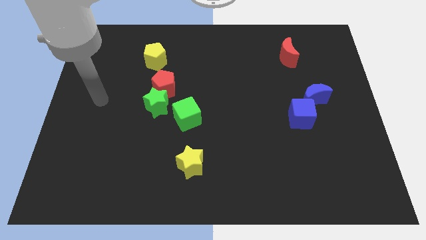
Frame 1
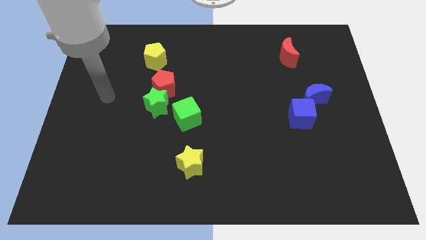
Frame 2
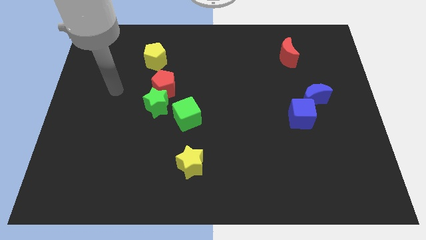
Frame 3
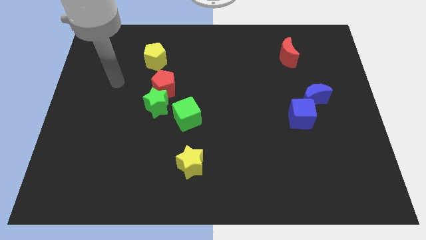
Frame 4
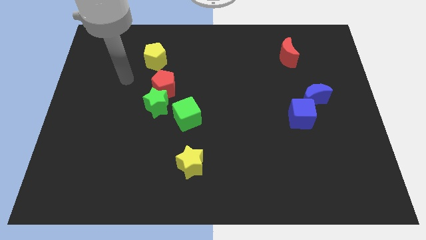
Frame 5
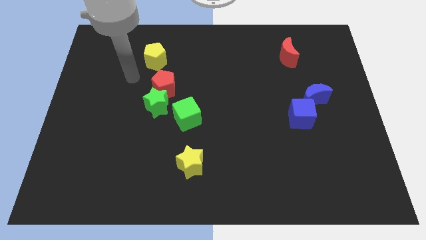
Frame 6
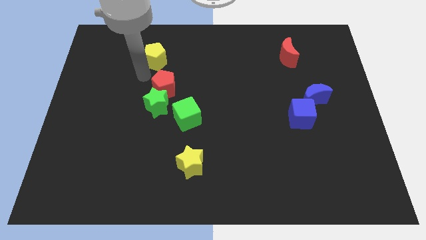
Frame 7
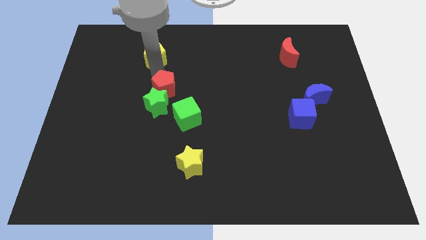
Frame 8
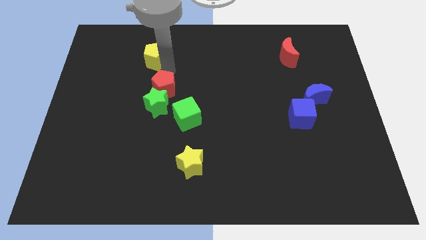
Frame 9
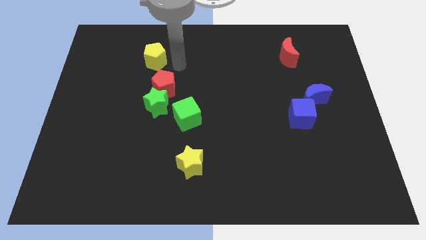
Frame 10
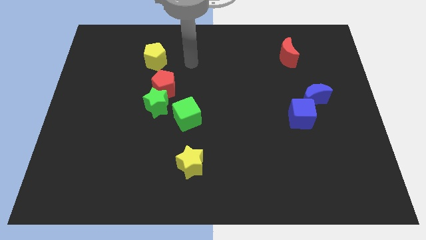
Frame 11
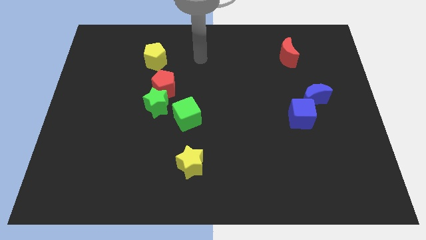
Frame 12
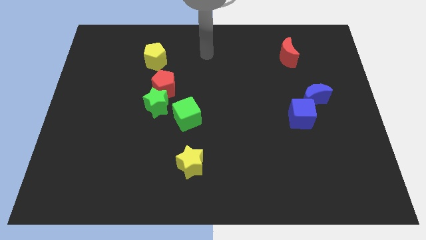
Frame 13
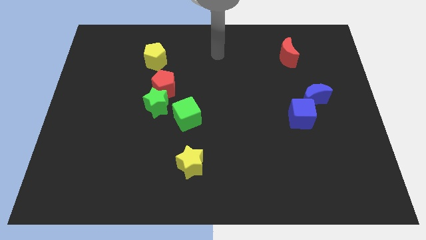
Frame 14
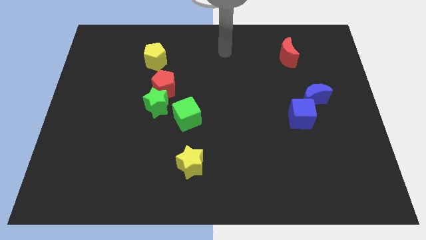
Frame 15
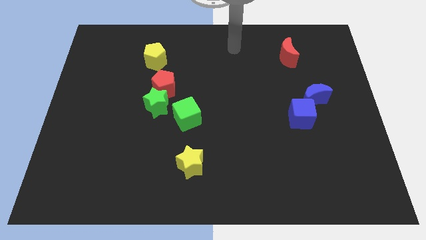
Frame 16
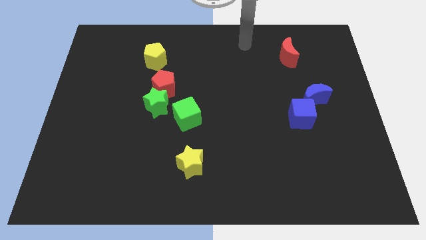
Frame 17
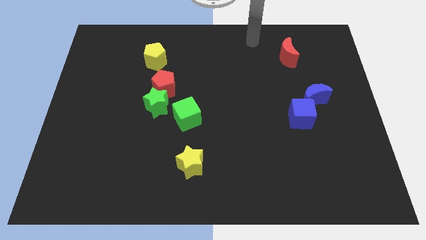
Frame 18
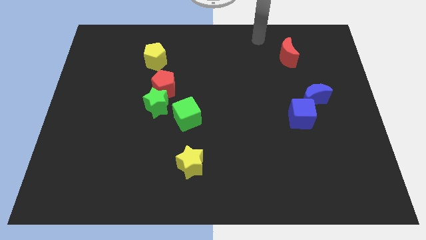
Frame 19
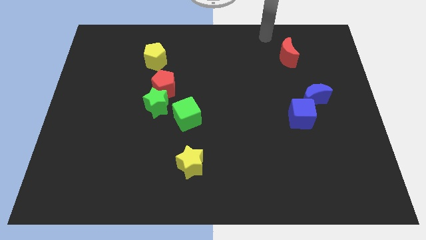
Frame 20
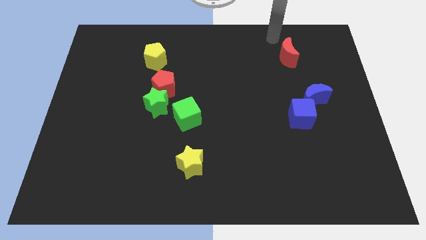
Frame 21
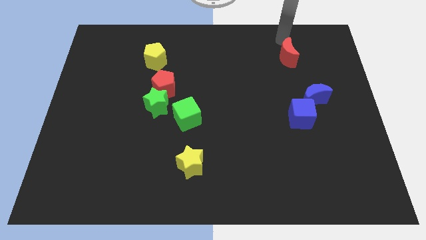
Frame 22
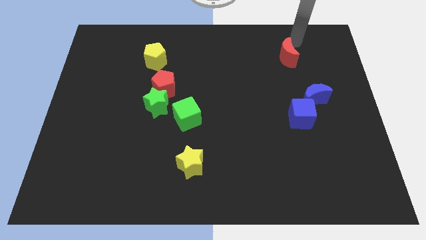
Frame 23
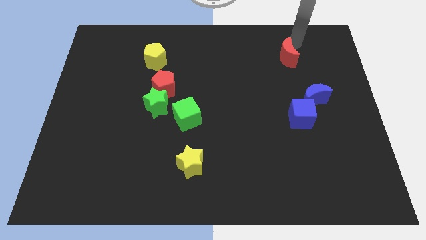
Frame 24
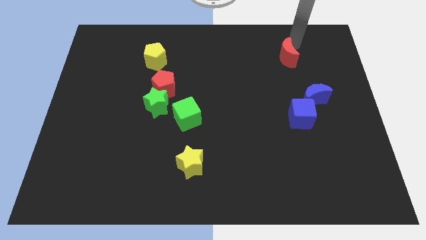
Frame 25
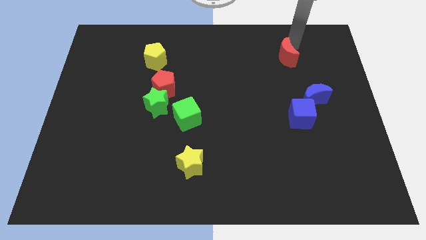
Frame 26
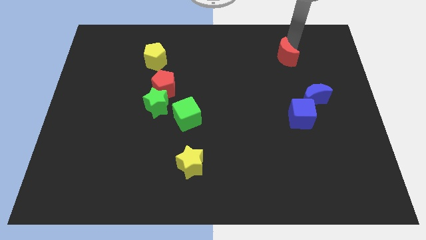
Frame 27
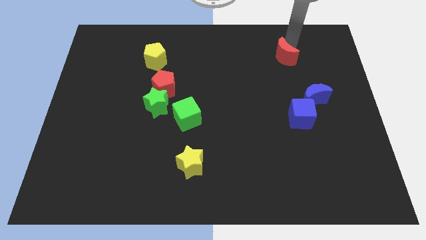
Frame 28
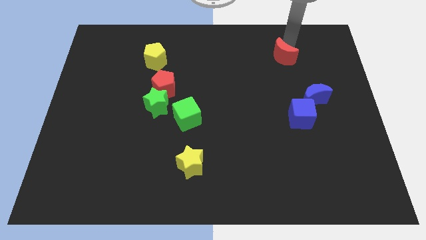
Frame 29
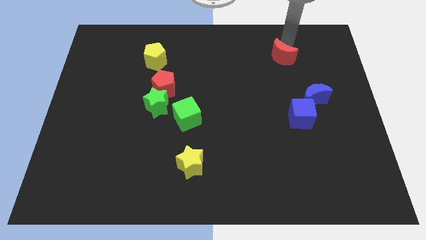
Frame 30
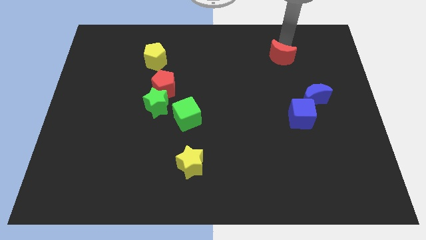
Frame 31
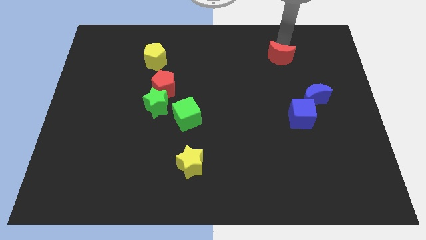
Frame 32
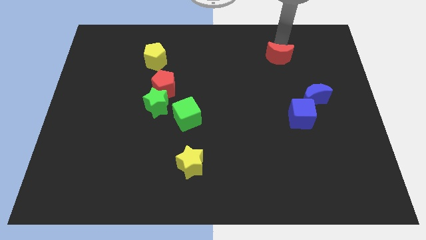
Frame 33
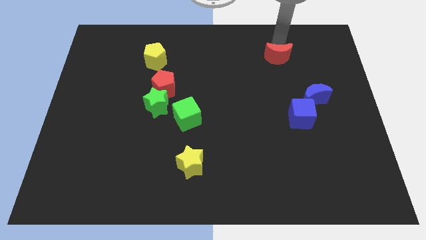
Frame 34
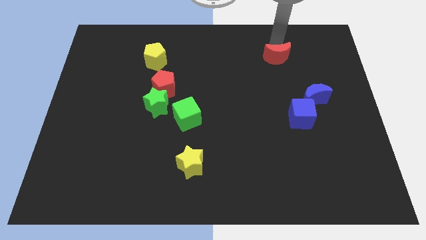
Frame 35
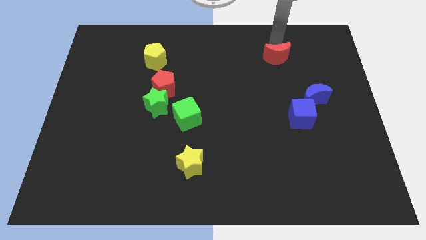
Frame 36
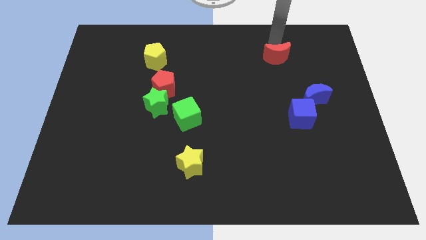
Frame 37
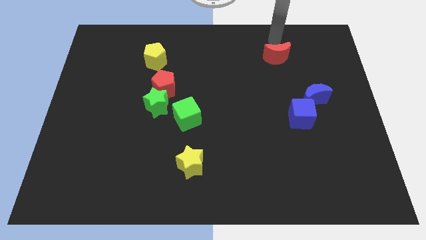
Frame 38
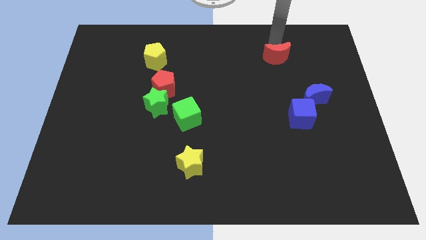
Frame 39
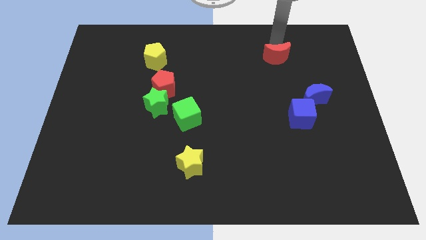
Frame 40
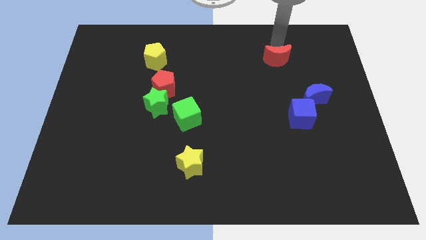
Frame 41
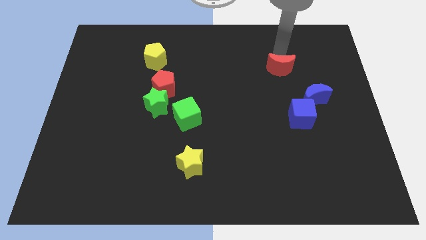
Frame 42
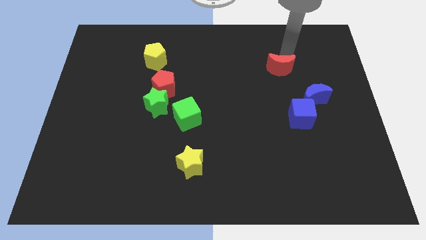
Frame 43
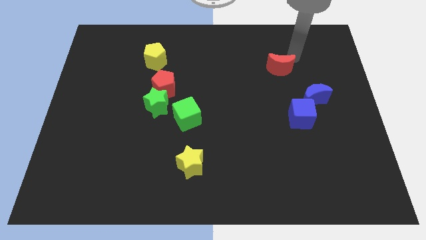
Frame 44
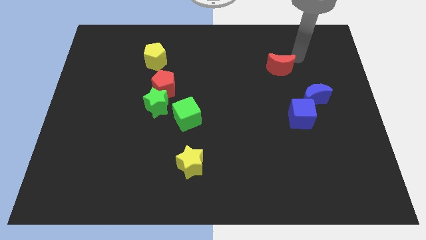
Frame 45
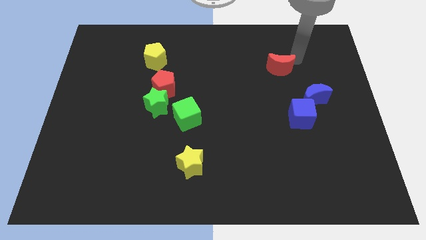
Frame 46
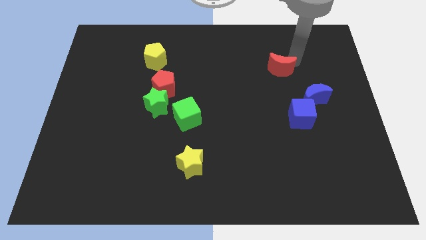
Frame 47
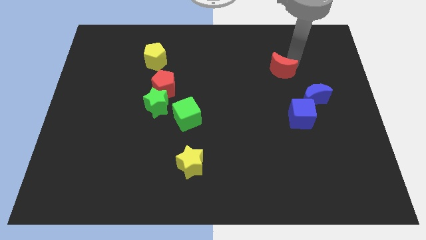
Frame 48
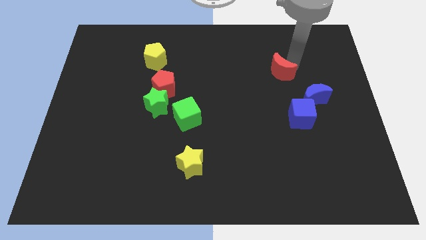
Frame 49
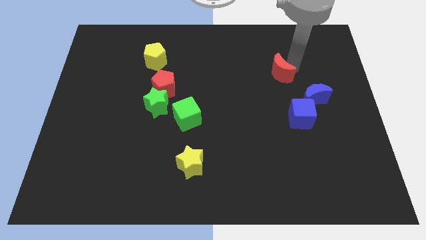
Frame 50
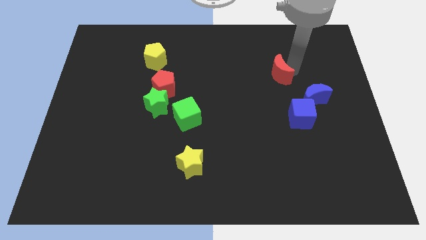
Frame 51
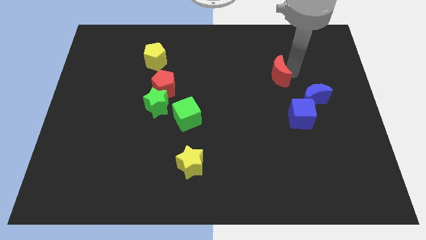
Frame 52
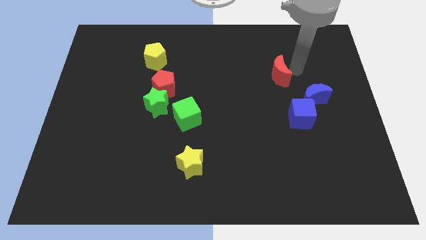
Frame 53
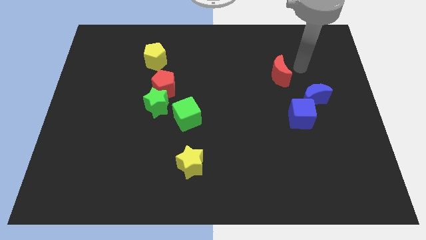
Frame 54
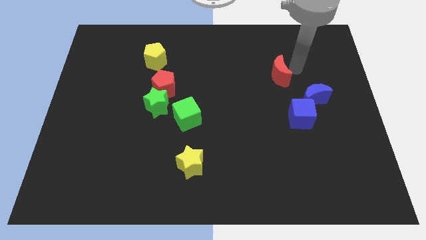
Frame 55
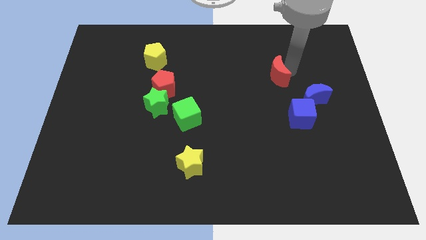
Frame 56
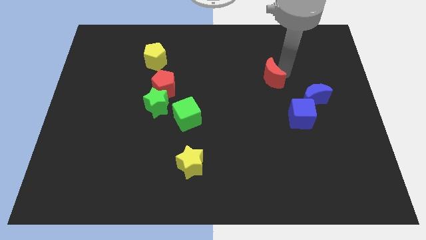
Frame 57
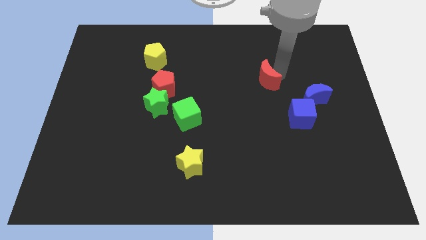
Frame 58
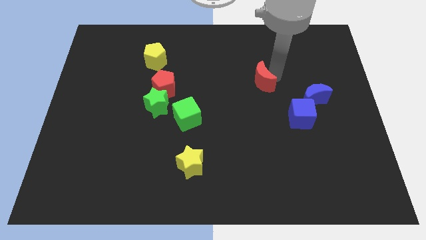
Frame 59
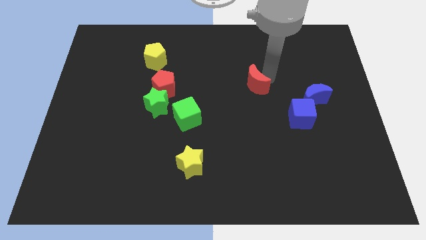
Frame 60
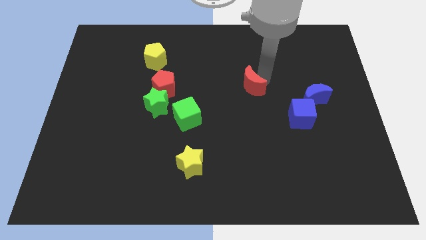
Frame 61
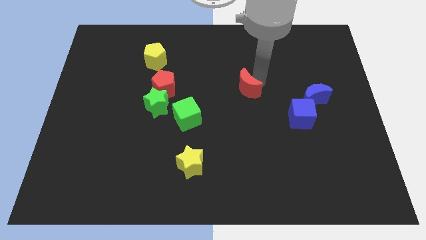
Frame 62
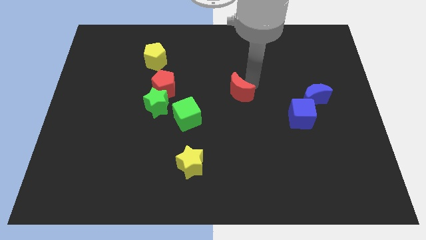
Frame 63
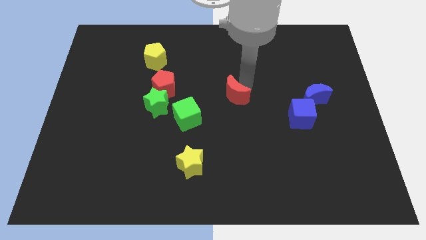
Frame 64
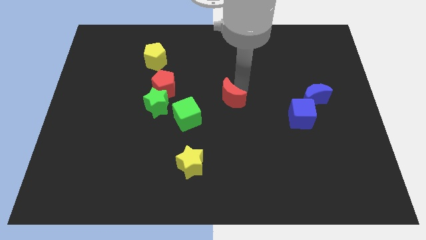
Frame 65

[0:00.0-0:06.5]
push the red moon down and to the left diagonally

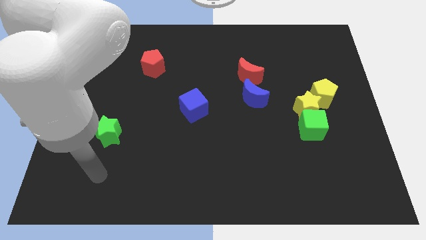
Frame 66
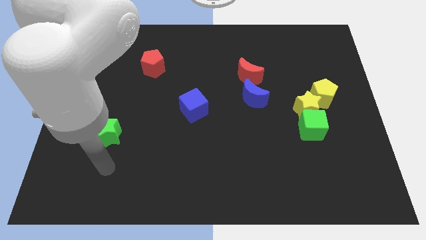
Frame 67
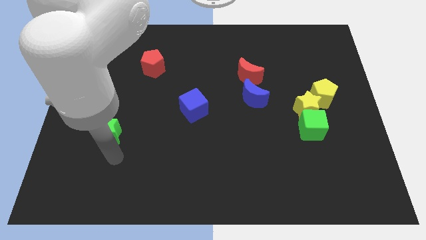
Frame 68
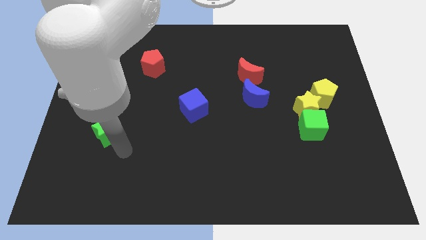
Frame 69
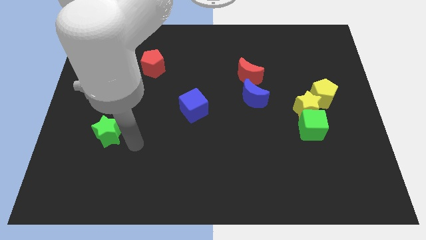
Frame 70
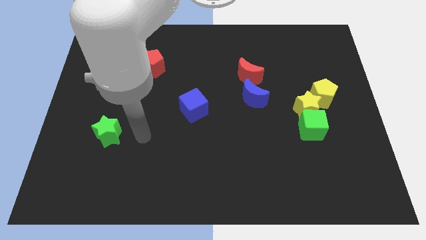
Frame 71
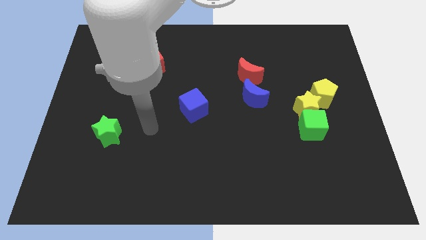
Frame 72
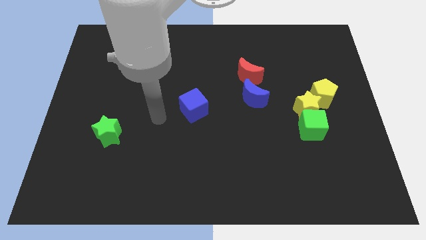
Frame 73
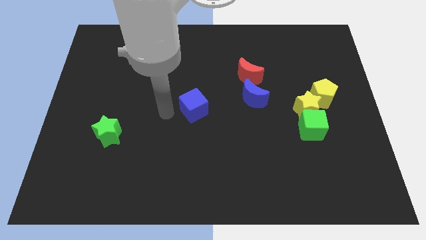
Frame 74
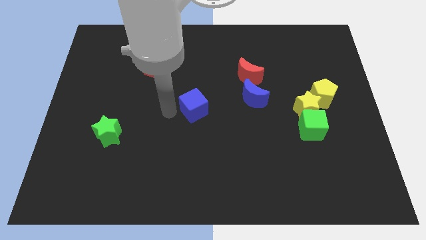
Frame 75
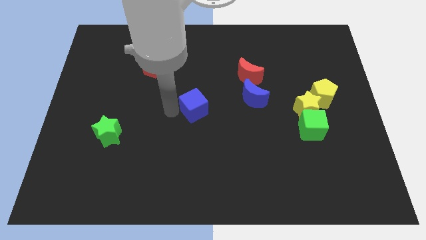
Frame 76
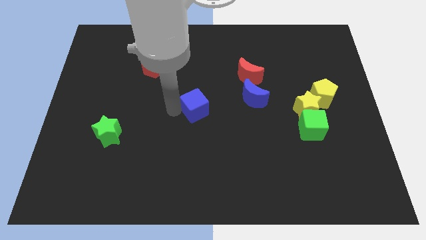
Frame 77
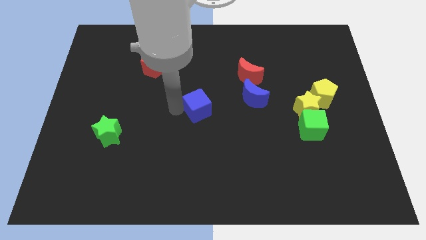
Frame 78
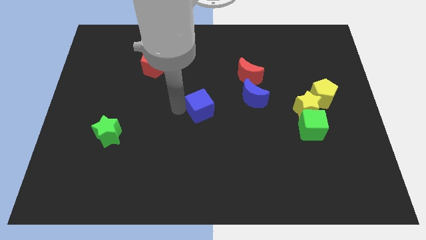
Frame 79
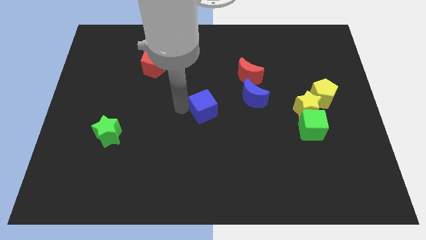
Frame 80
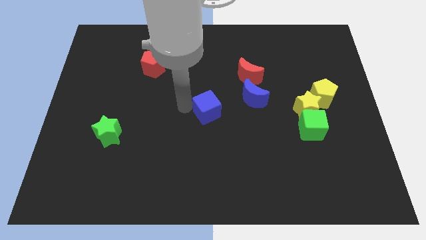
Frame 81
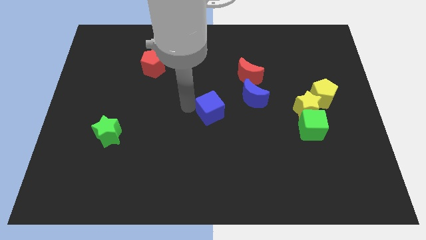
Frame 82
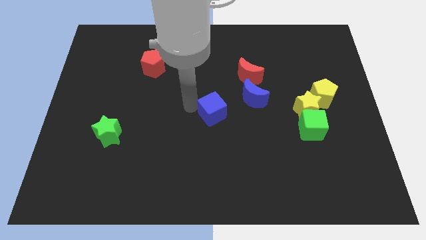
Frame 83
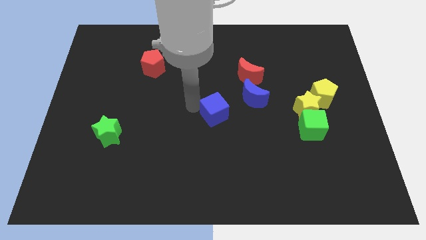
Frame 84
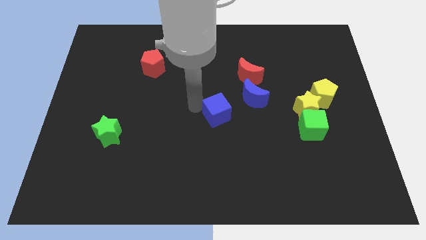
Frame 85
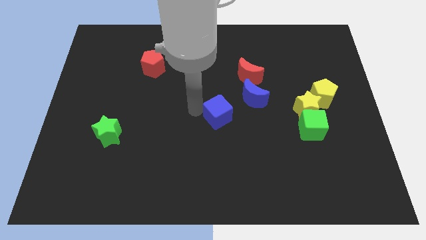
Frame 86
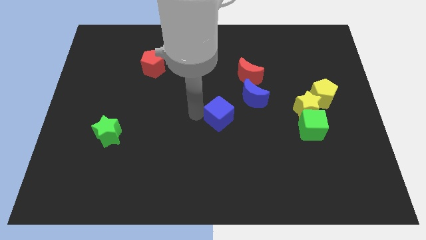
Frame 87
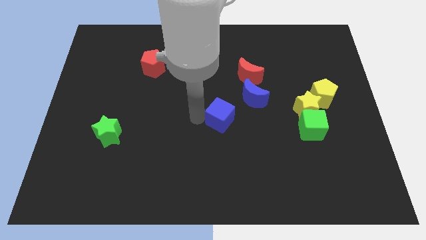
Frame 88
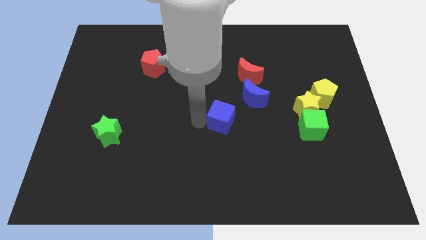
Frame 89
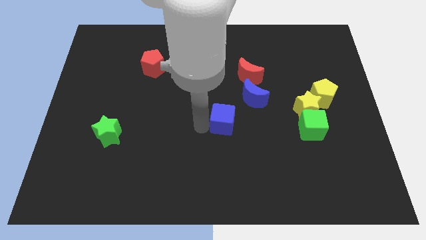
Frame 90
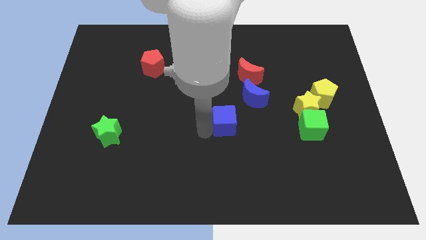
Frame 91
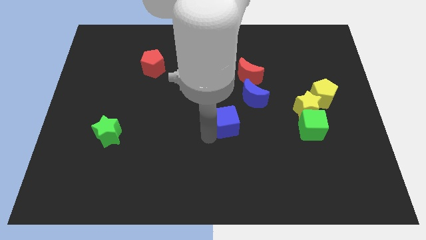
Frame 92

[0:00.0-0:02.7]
slightly push the blue cube to the right
